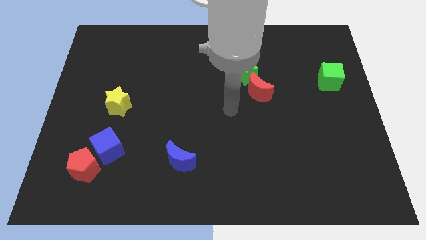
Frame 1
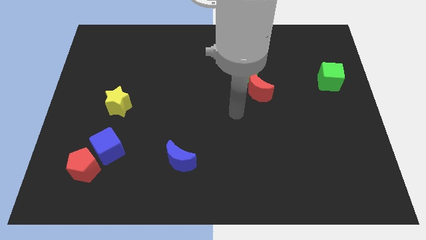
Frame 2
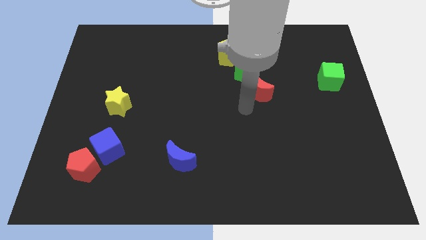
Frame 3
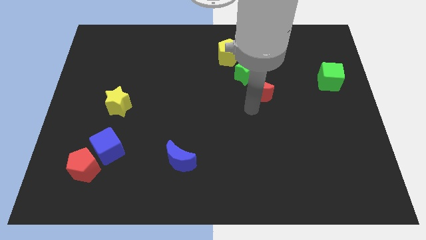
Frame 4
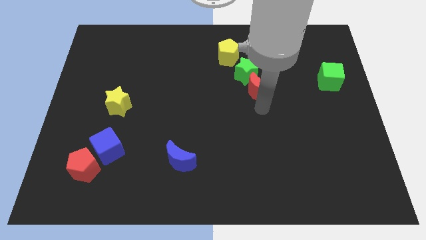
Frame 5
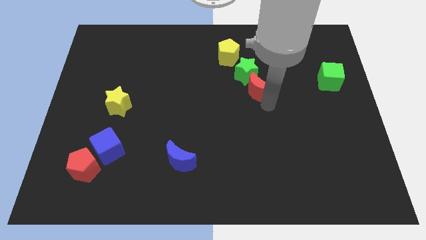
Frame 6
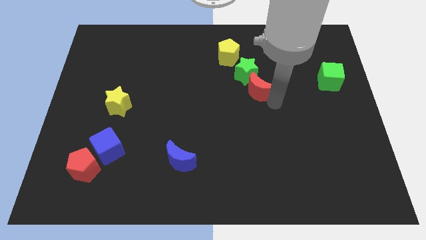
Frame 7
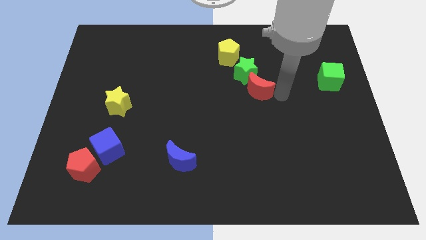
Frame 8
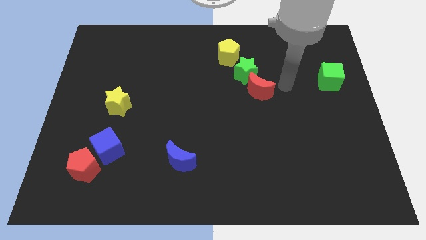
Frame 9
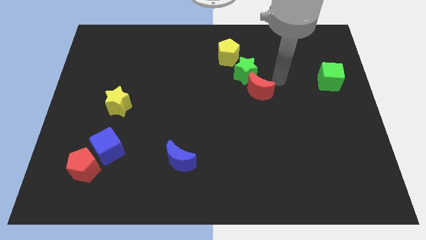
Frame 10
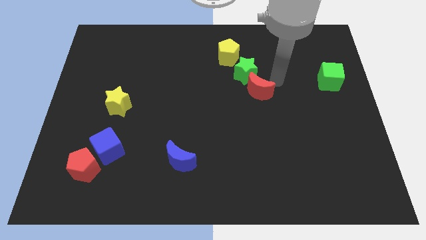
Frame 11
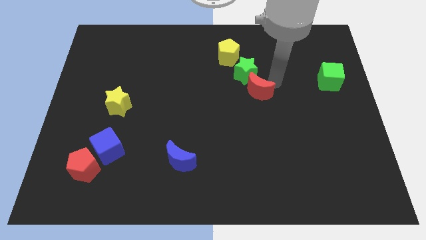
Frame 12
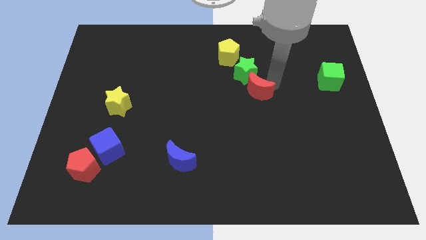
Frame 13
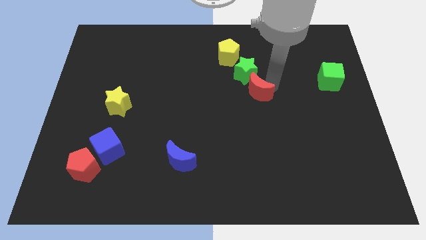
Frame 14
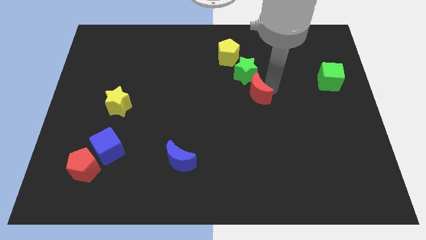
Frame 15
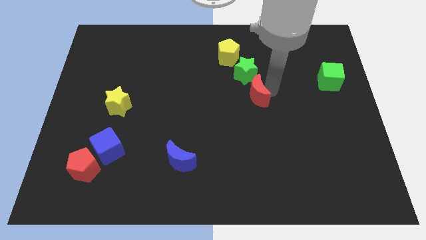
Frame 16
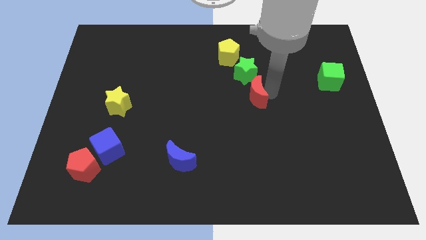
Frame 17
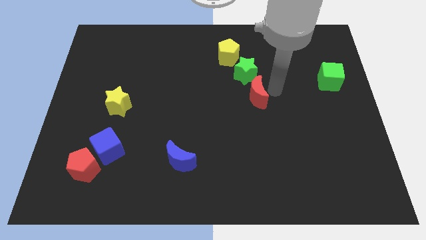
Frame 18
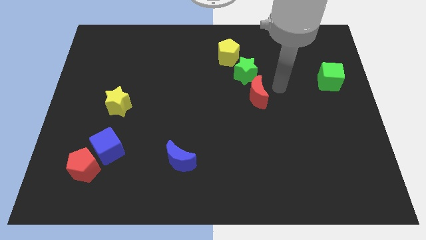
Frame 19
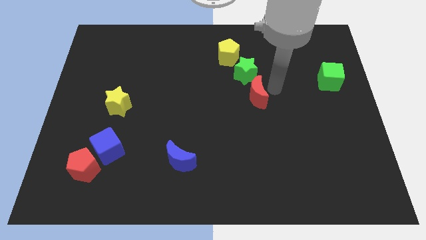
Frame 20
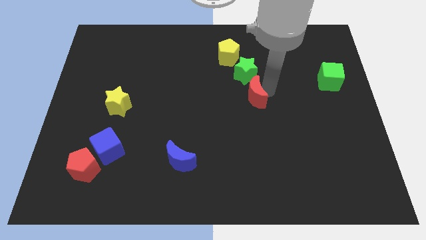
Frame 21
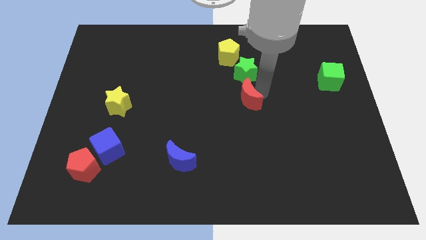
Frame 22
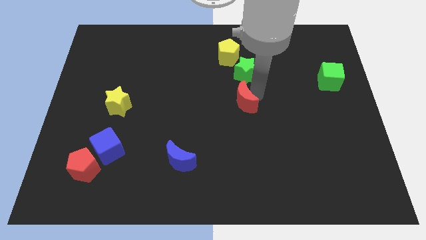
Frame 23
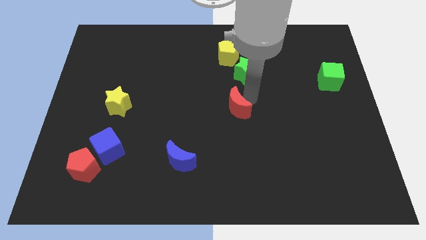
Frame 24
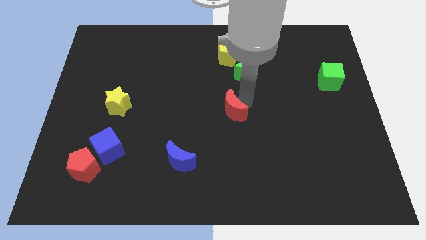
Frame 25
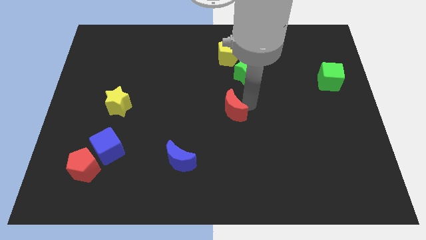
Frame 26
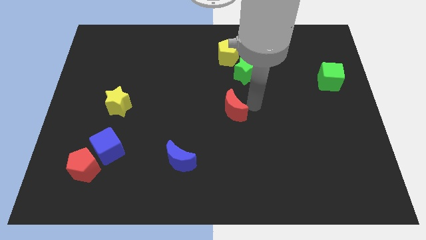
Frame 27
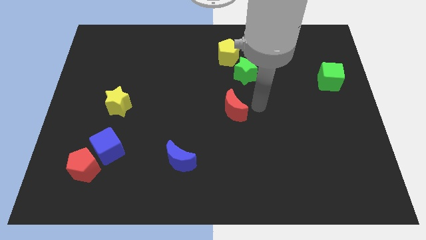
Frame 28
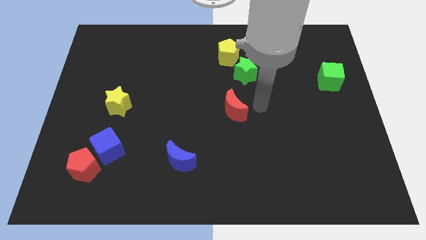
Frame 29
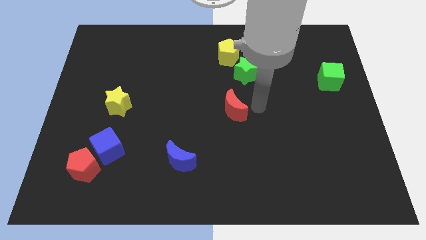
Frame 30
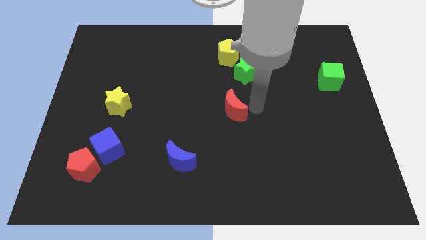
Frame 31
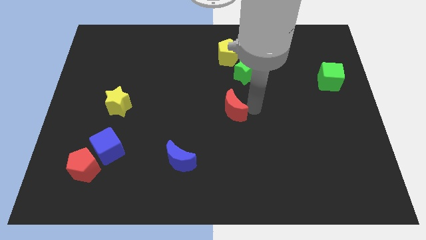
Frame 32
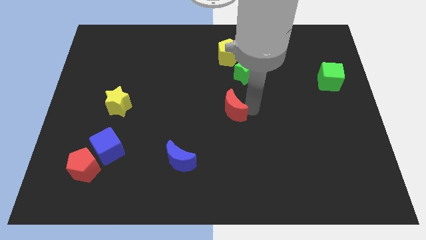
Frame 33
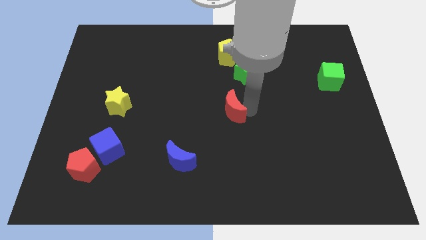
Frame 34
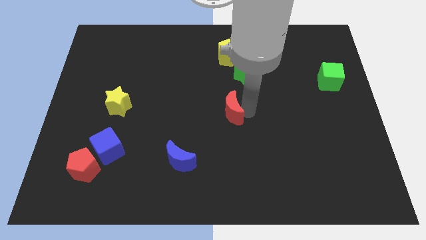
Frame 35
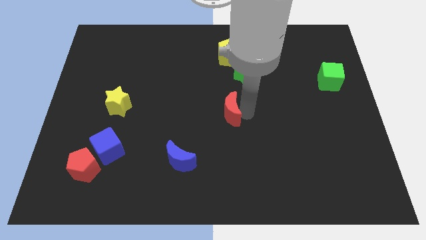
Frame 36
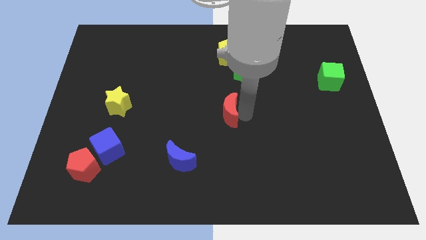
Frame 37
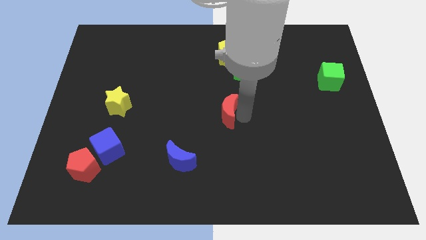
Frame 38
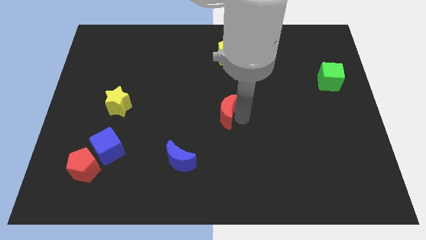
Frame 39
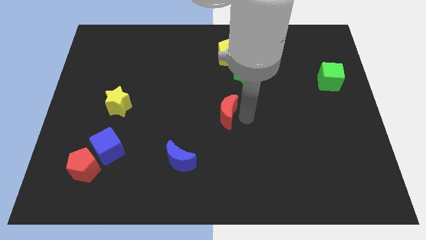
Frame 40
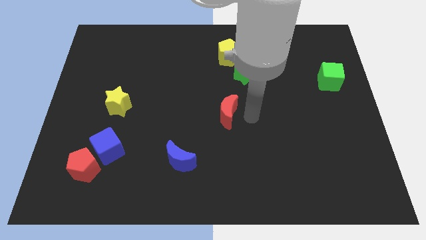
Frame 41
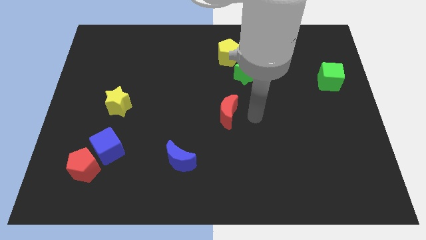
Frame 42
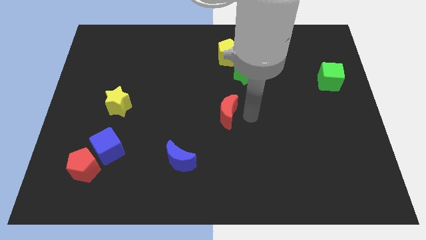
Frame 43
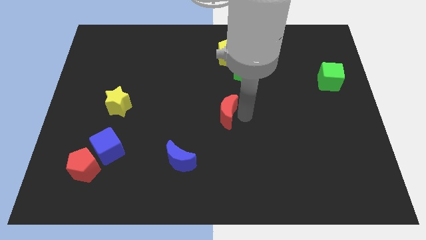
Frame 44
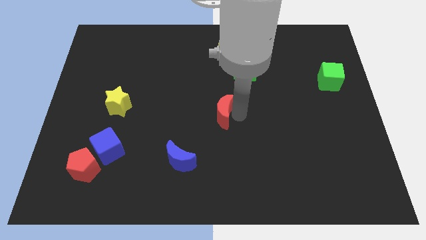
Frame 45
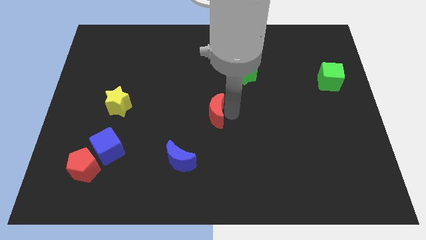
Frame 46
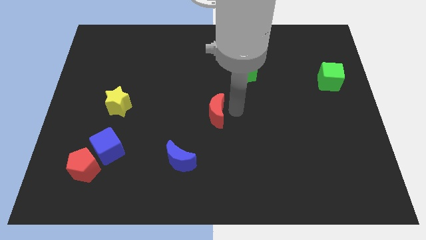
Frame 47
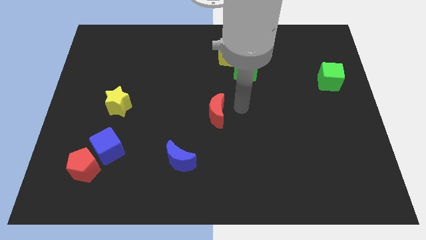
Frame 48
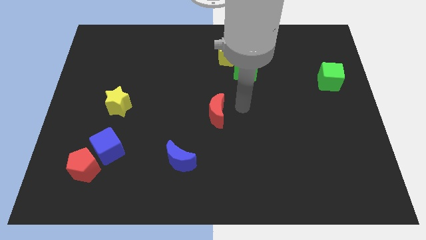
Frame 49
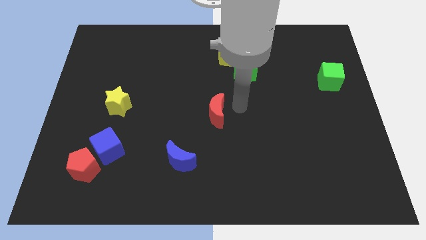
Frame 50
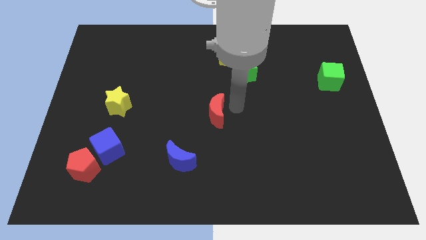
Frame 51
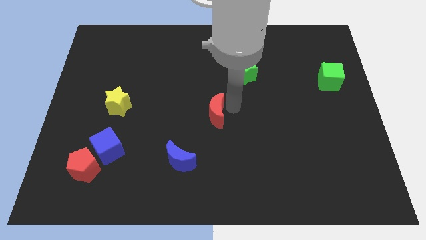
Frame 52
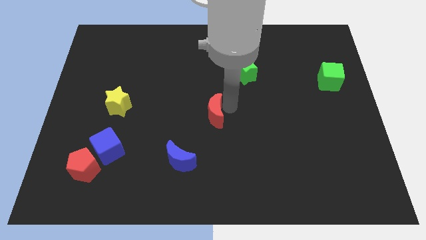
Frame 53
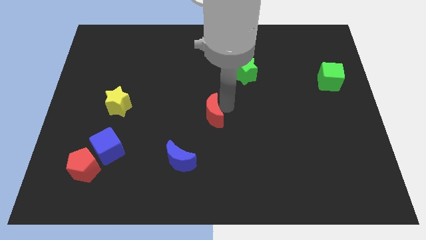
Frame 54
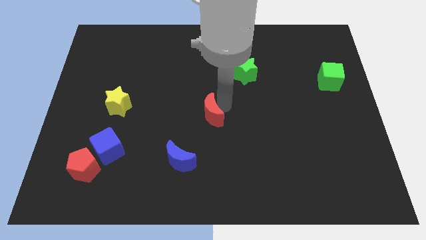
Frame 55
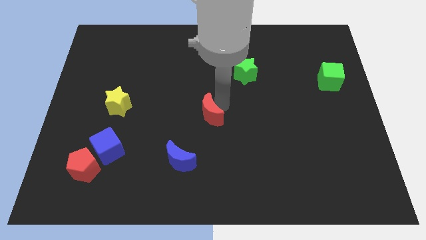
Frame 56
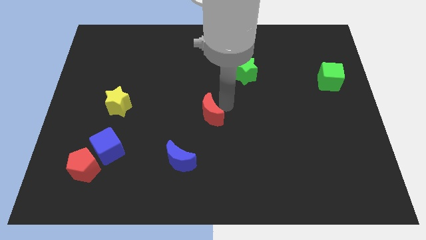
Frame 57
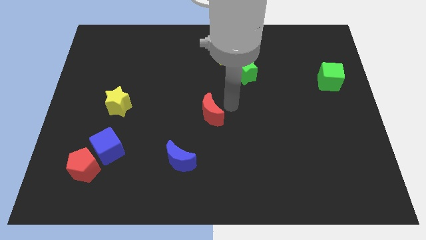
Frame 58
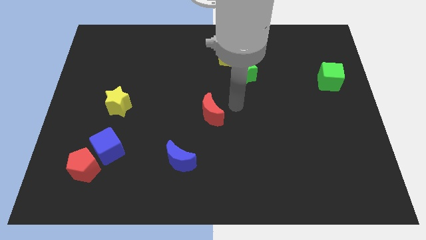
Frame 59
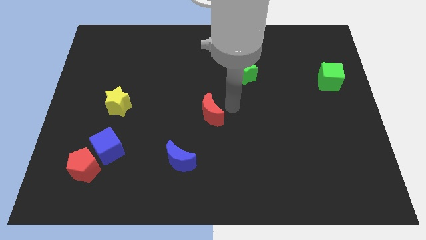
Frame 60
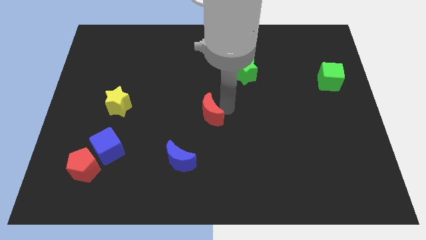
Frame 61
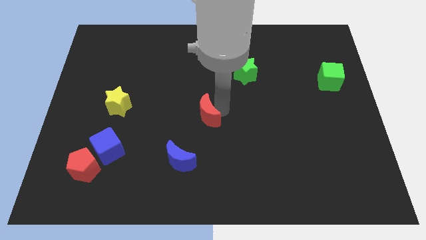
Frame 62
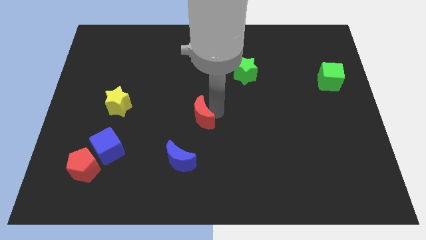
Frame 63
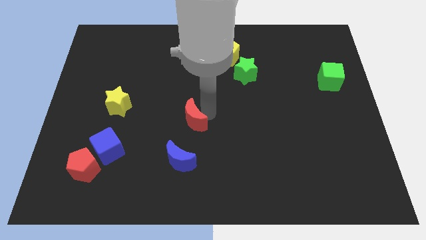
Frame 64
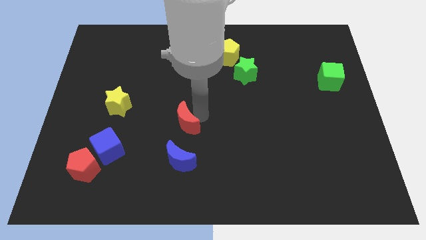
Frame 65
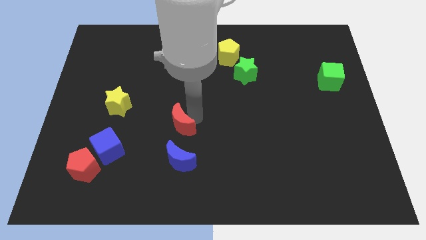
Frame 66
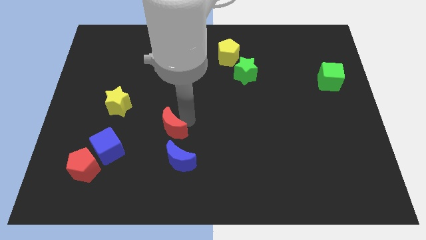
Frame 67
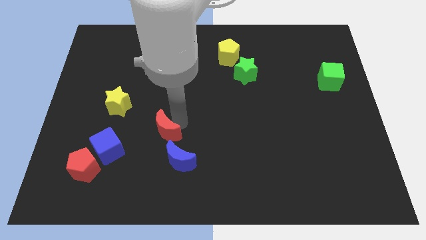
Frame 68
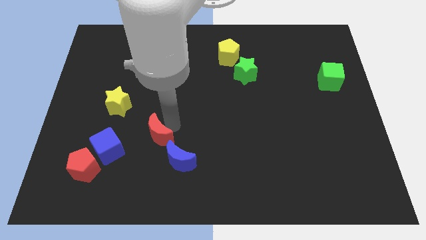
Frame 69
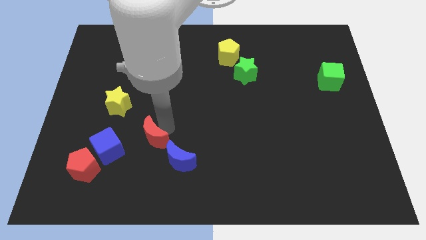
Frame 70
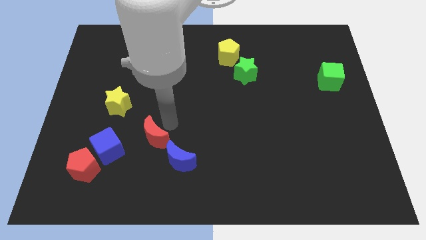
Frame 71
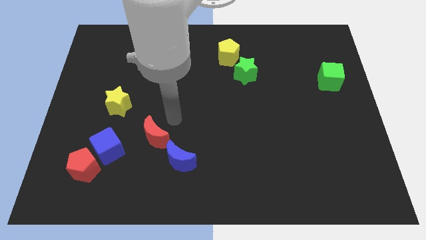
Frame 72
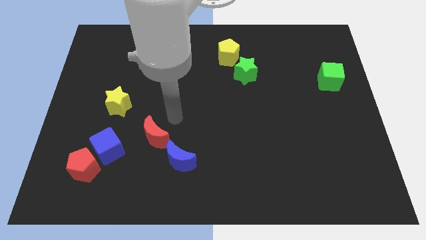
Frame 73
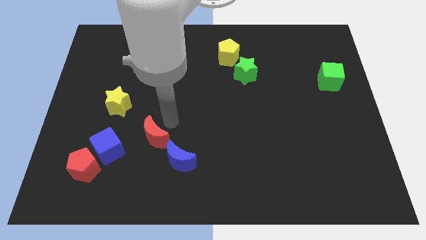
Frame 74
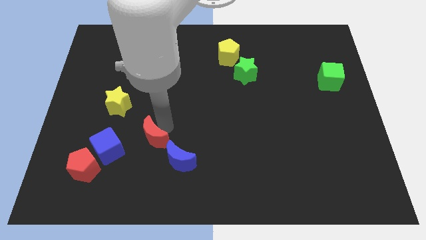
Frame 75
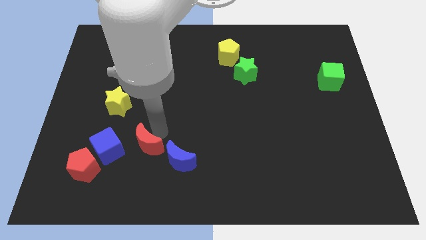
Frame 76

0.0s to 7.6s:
move the red moon to the left side of the blue moon

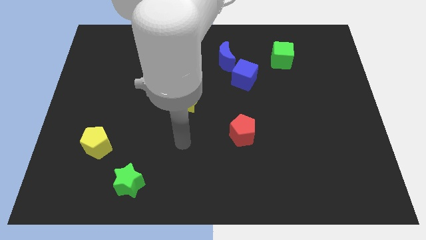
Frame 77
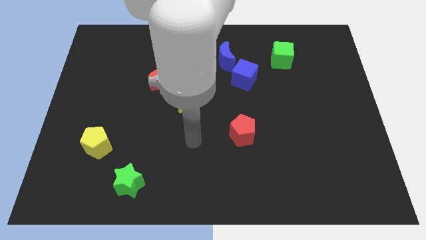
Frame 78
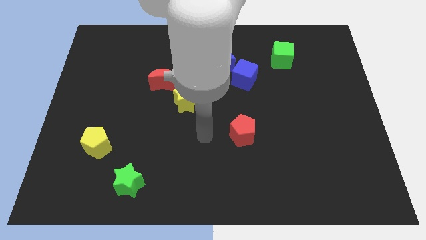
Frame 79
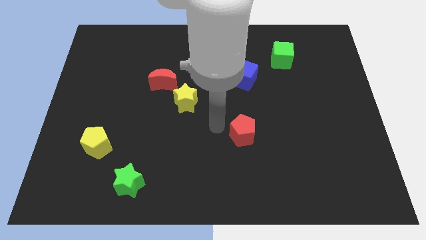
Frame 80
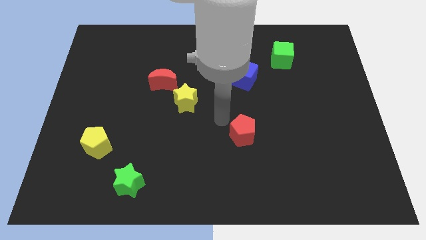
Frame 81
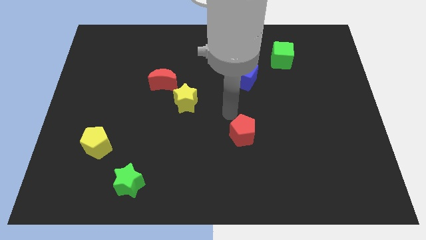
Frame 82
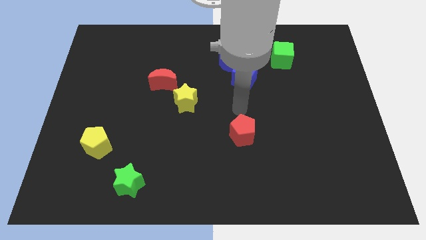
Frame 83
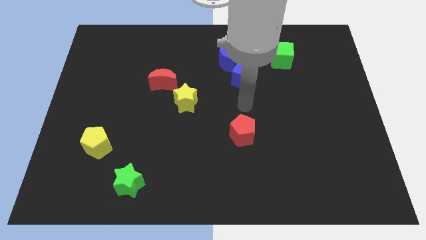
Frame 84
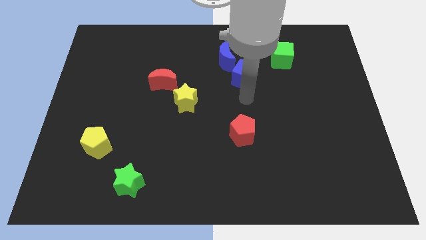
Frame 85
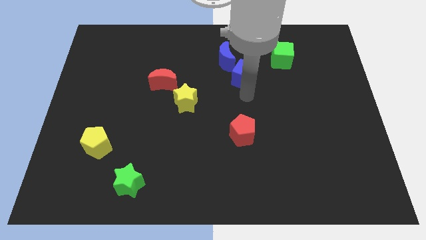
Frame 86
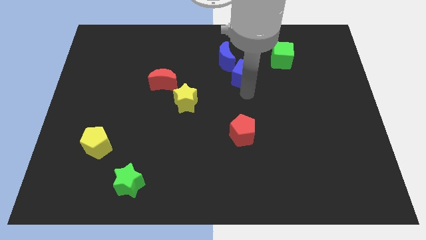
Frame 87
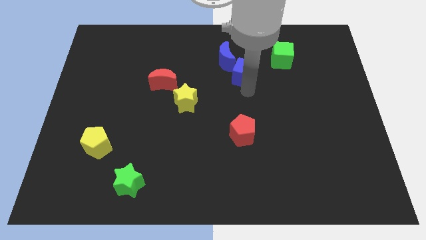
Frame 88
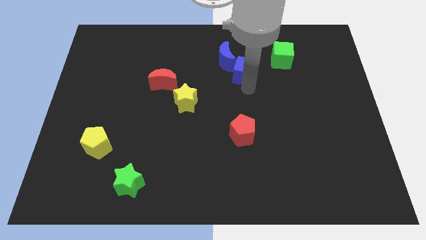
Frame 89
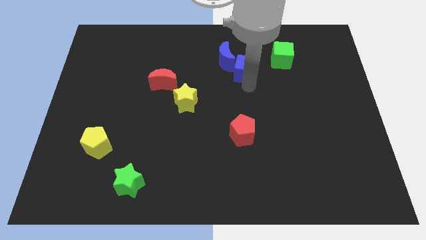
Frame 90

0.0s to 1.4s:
move the blue cube left of the green cube
